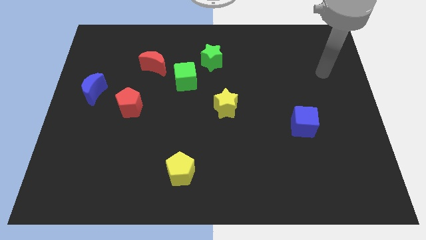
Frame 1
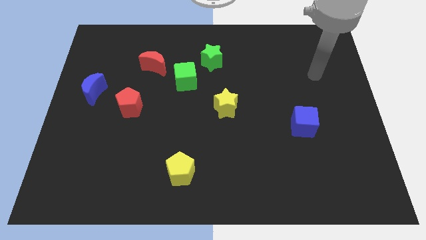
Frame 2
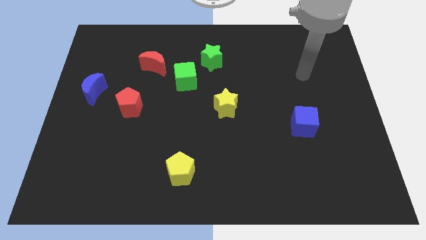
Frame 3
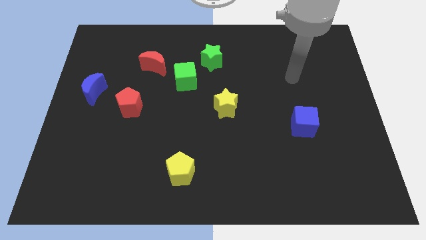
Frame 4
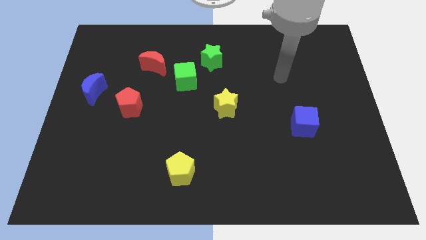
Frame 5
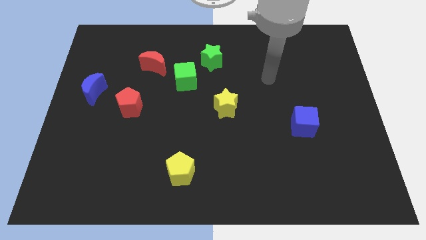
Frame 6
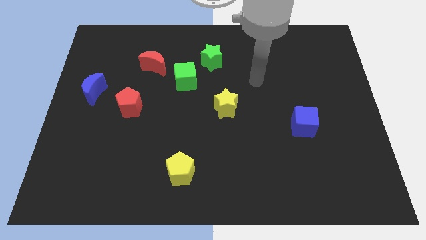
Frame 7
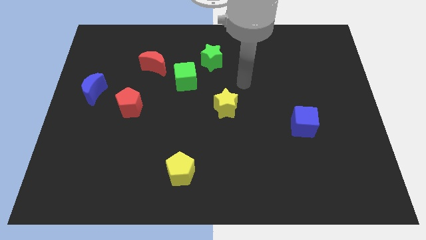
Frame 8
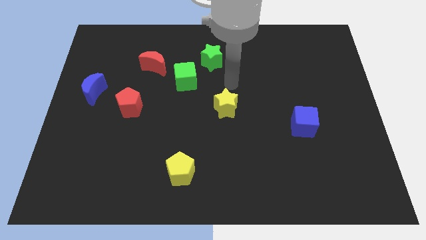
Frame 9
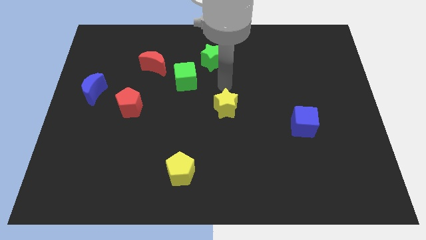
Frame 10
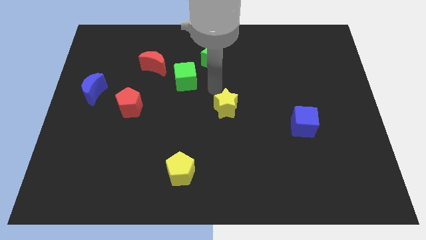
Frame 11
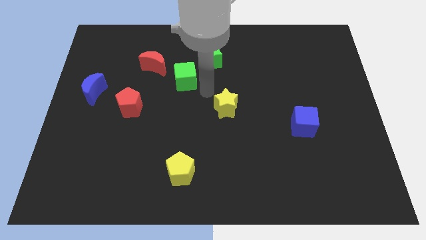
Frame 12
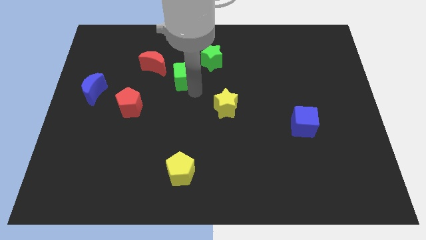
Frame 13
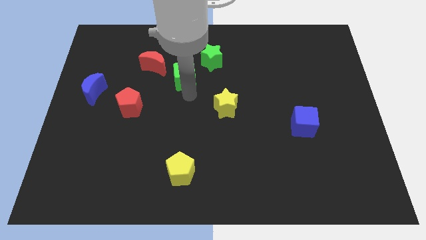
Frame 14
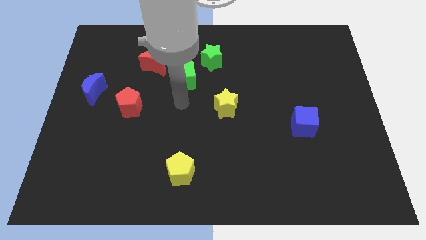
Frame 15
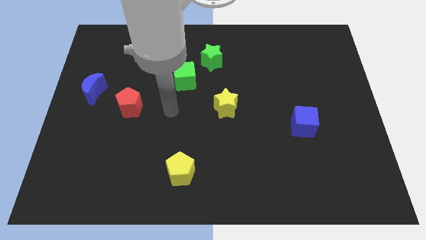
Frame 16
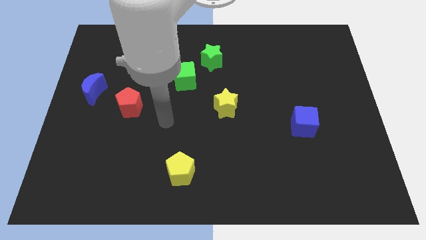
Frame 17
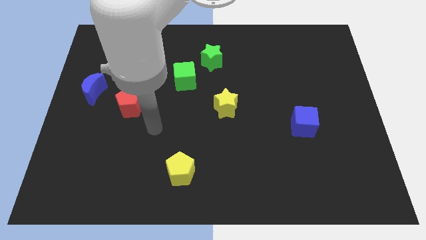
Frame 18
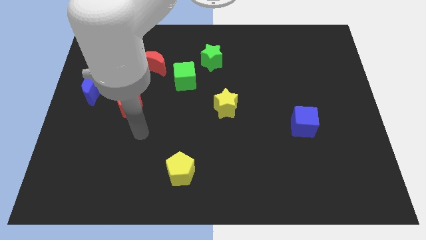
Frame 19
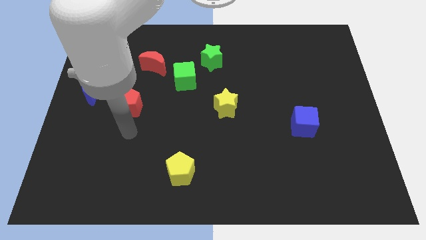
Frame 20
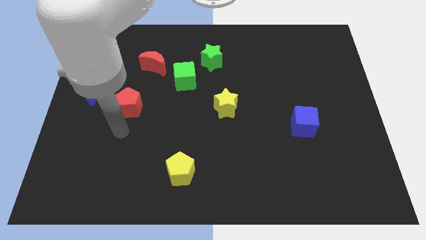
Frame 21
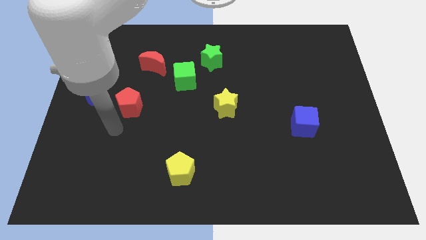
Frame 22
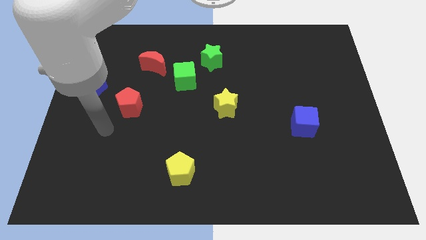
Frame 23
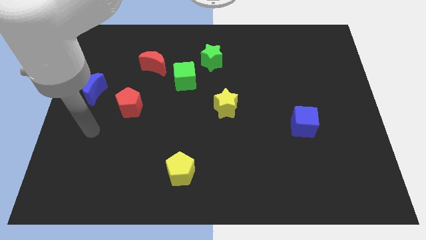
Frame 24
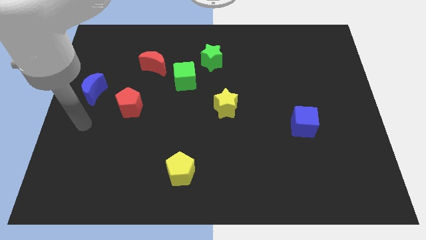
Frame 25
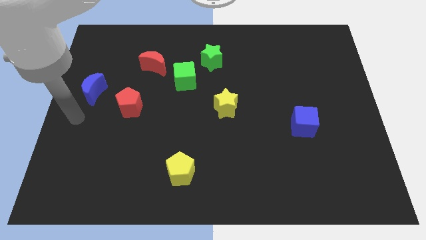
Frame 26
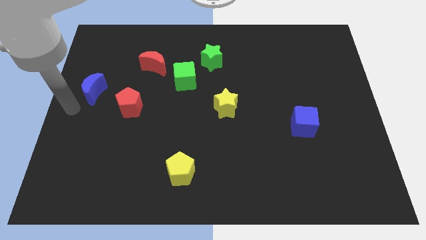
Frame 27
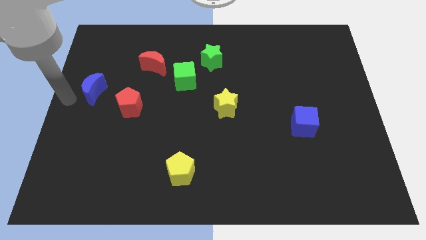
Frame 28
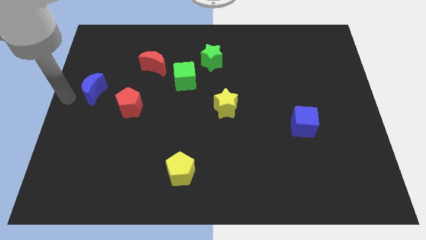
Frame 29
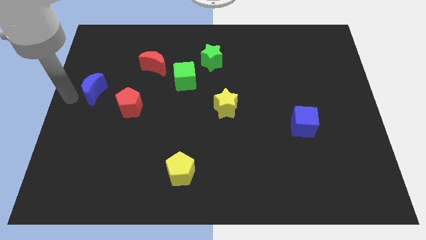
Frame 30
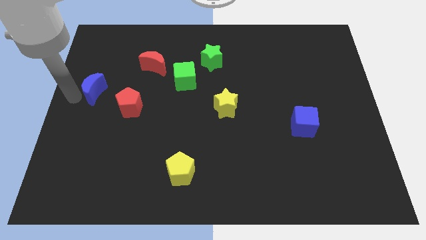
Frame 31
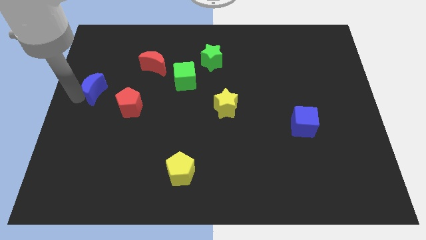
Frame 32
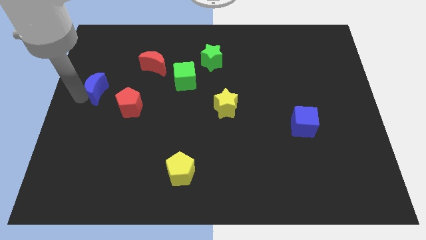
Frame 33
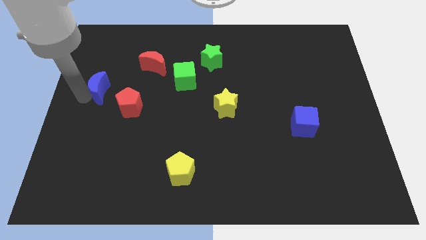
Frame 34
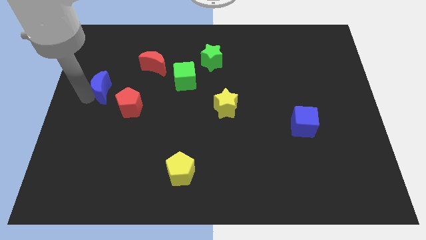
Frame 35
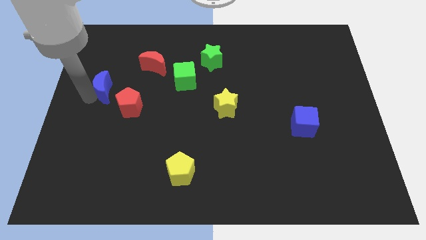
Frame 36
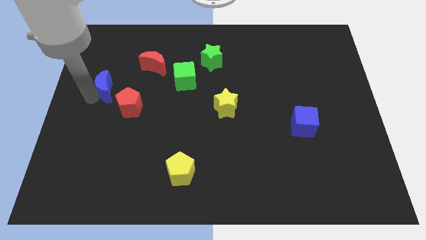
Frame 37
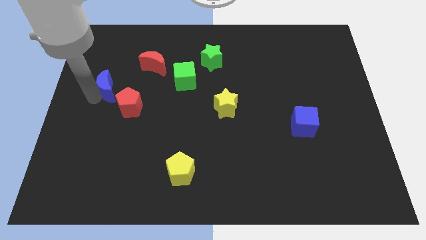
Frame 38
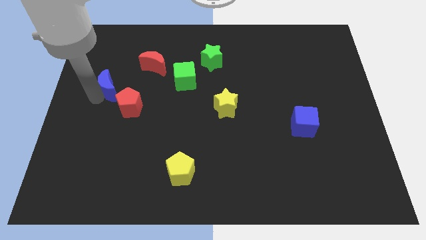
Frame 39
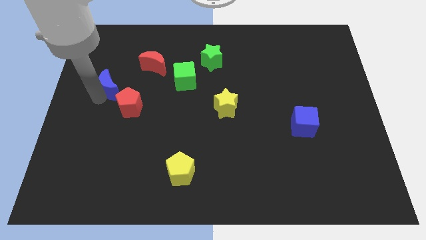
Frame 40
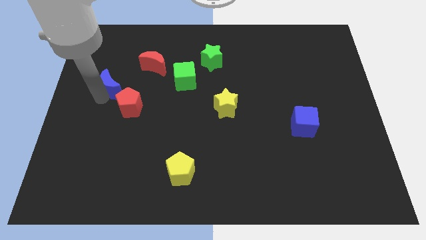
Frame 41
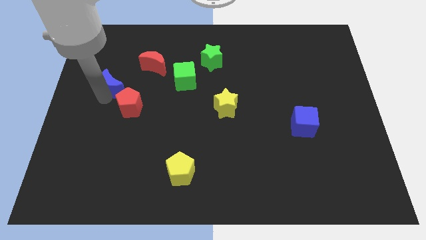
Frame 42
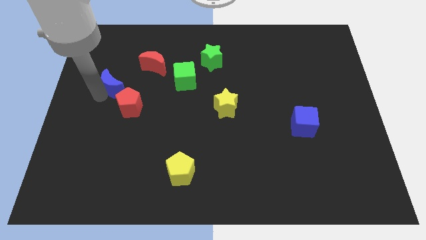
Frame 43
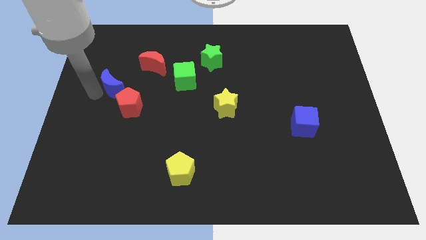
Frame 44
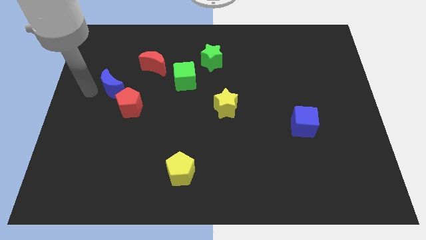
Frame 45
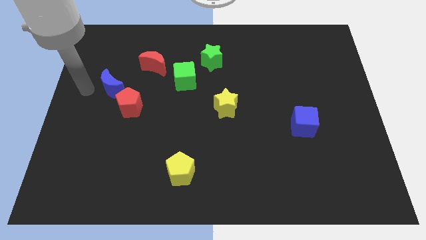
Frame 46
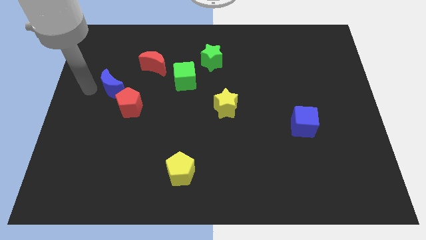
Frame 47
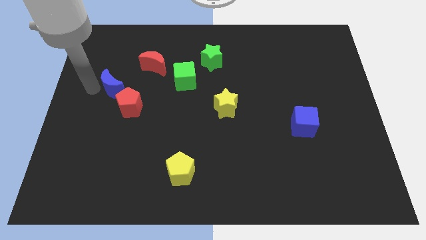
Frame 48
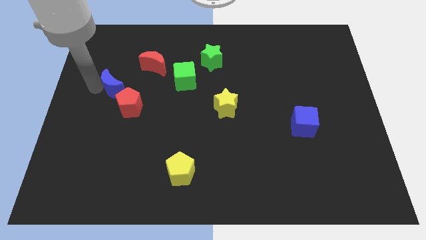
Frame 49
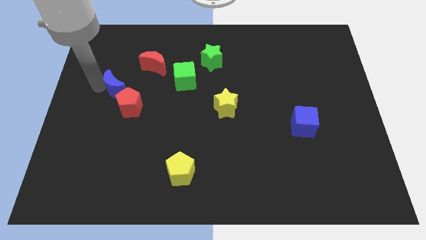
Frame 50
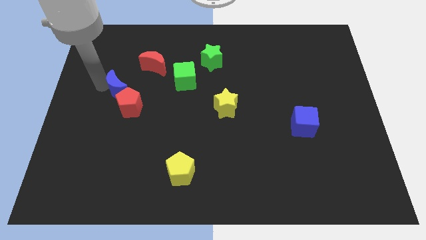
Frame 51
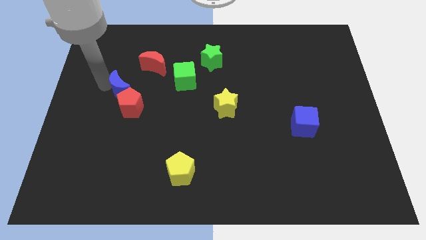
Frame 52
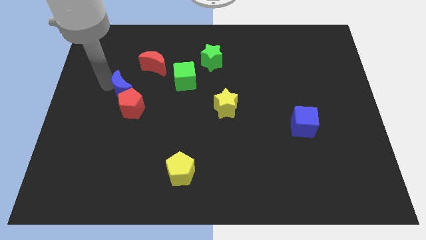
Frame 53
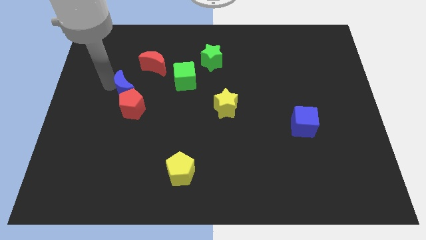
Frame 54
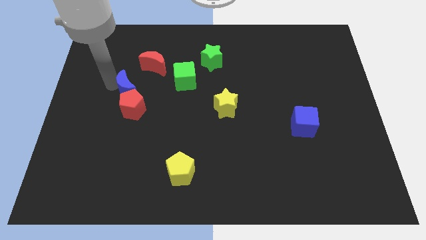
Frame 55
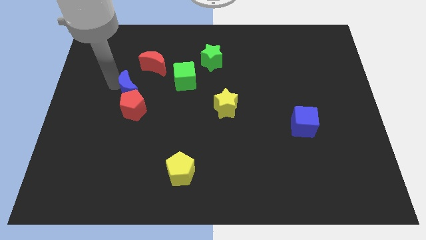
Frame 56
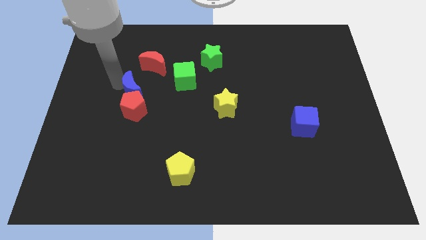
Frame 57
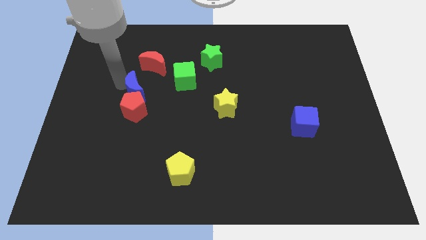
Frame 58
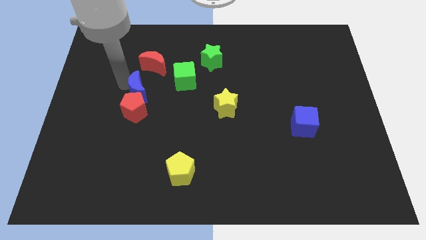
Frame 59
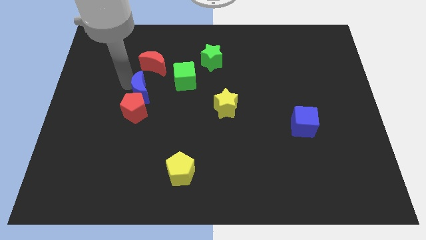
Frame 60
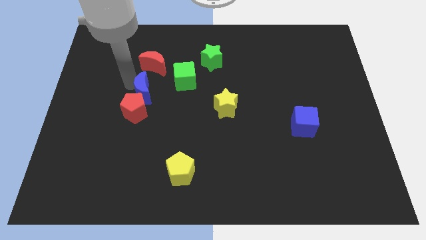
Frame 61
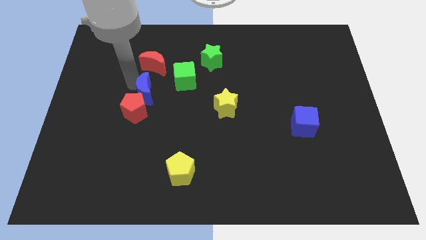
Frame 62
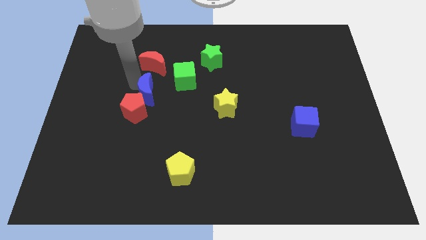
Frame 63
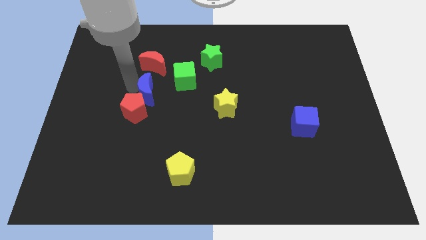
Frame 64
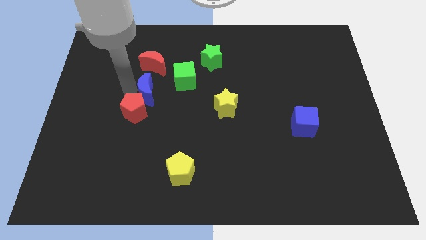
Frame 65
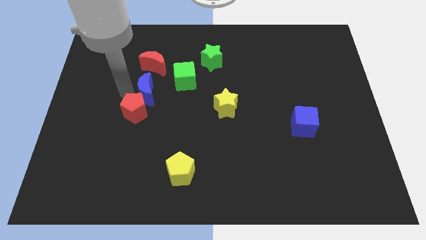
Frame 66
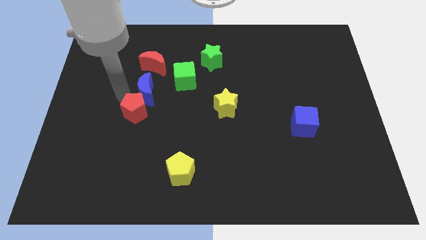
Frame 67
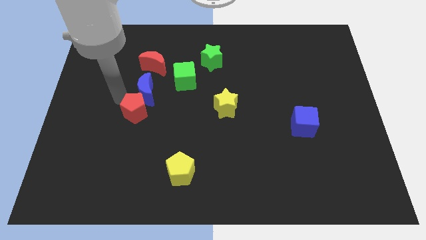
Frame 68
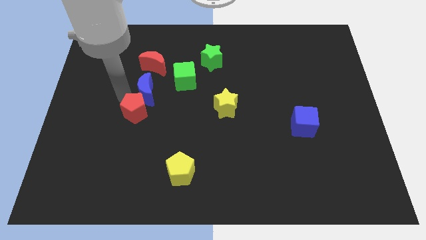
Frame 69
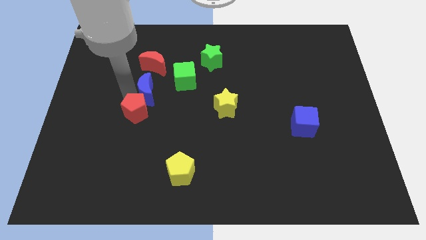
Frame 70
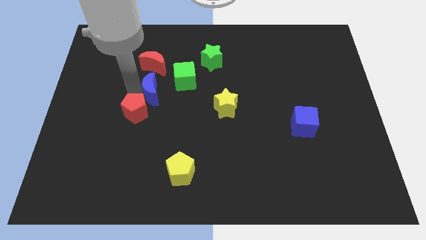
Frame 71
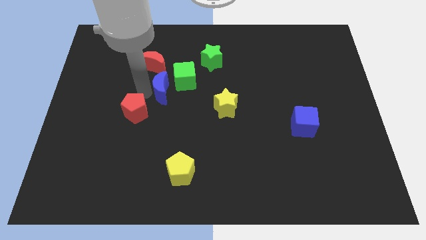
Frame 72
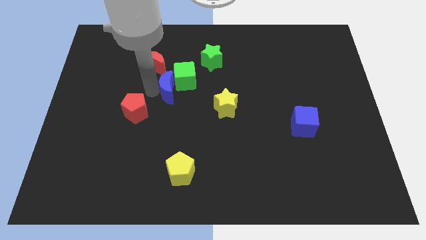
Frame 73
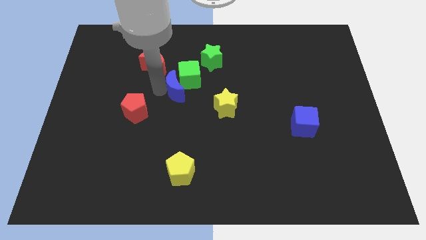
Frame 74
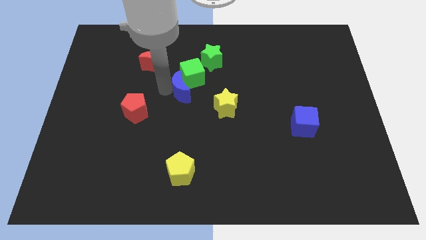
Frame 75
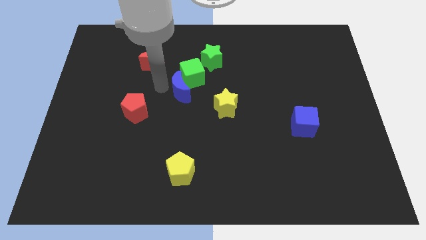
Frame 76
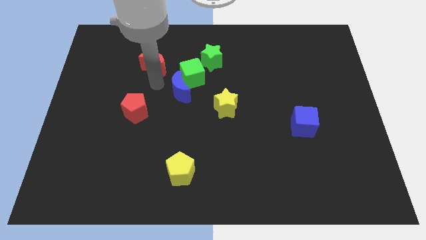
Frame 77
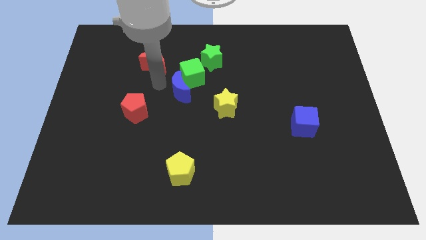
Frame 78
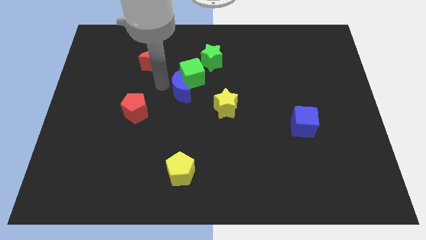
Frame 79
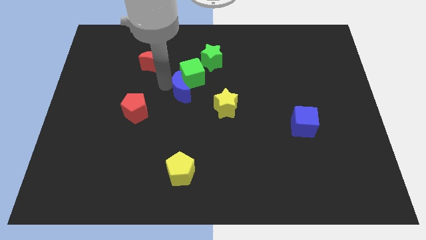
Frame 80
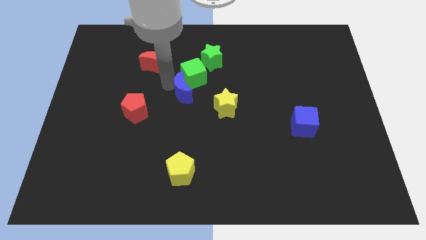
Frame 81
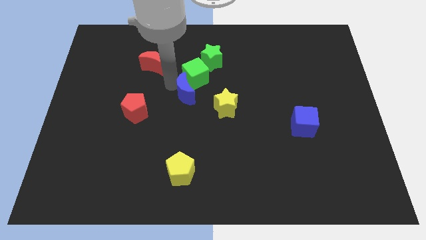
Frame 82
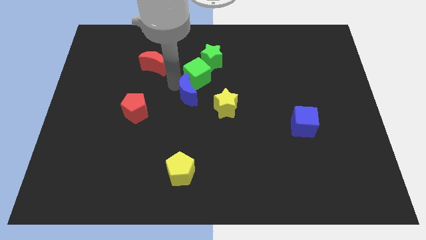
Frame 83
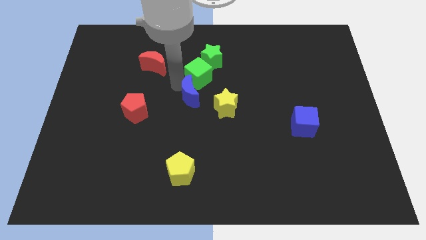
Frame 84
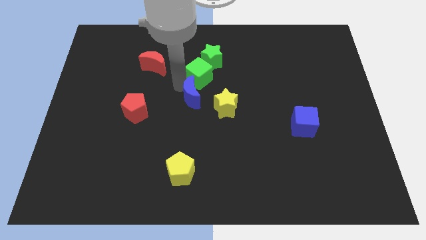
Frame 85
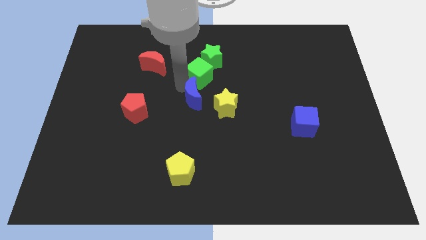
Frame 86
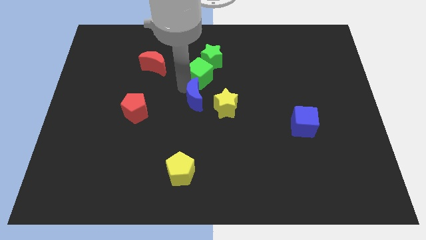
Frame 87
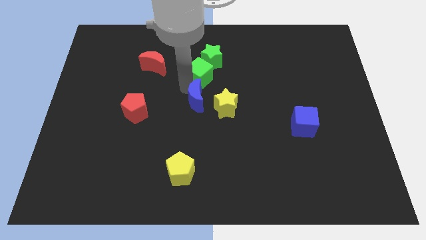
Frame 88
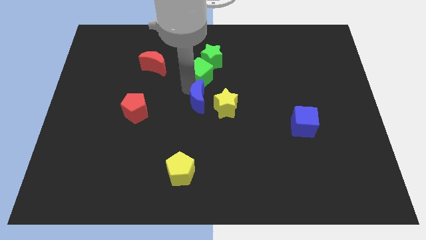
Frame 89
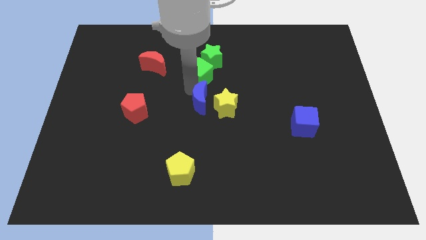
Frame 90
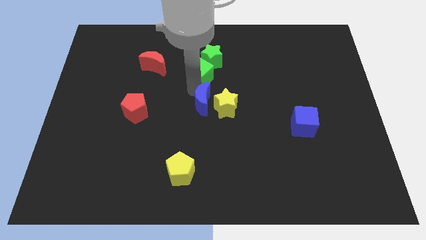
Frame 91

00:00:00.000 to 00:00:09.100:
slide the blue moon close to the yellow star
